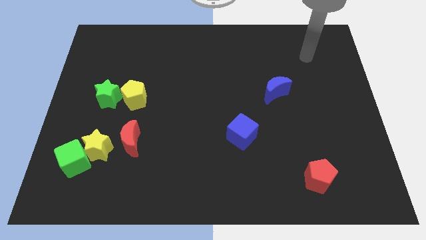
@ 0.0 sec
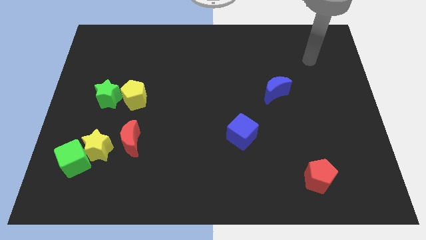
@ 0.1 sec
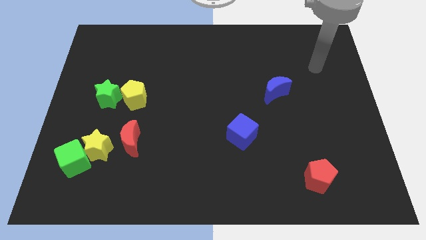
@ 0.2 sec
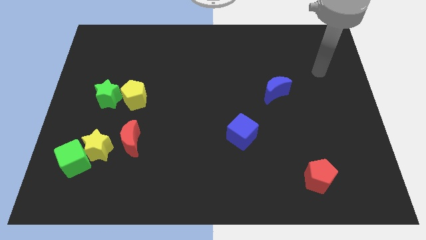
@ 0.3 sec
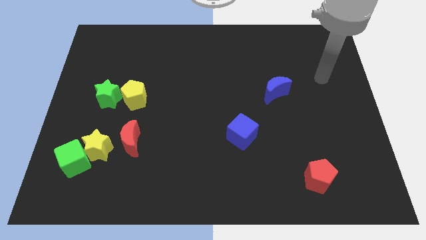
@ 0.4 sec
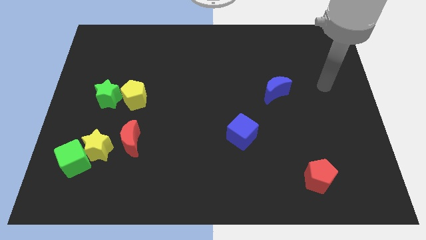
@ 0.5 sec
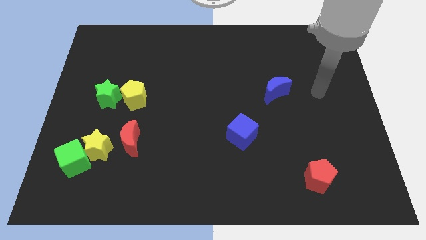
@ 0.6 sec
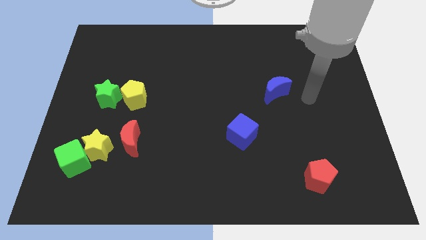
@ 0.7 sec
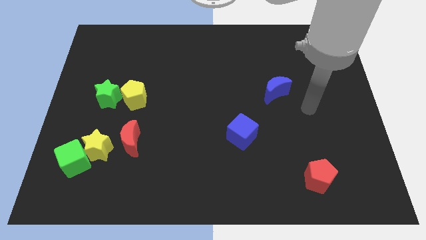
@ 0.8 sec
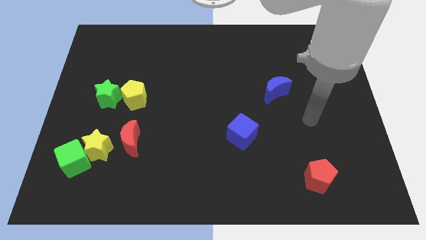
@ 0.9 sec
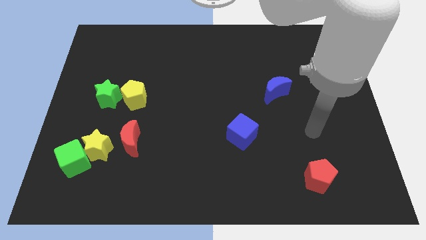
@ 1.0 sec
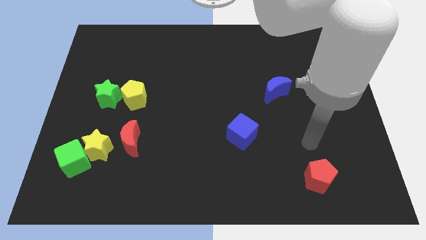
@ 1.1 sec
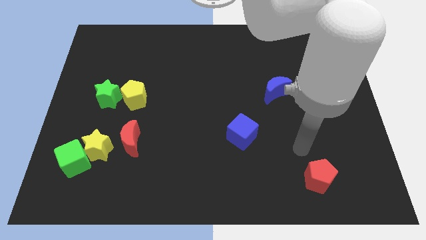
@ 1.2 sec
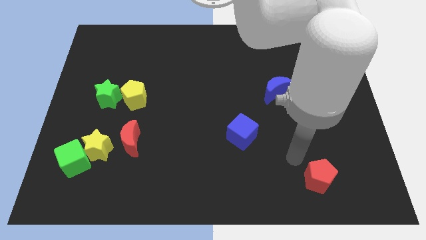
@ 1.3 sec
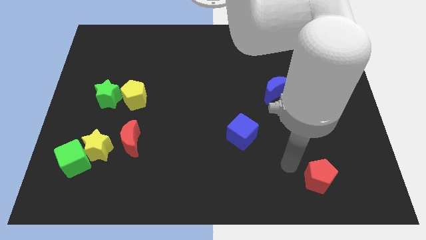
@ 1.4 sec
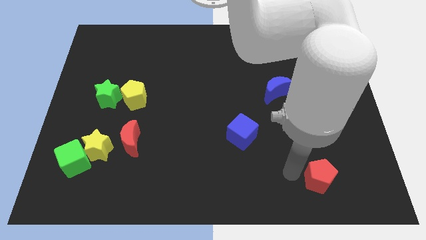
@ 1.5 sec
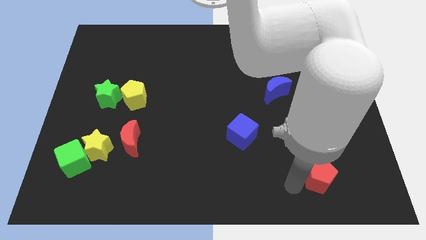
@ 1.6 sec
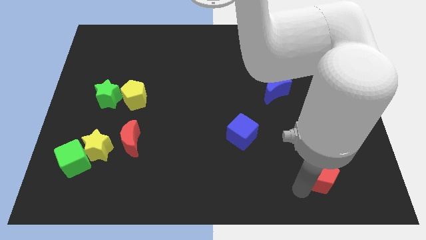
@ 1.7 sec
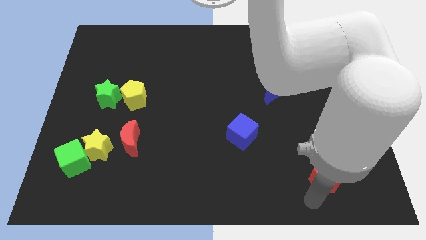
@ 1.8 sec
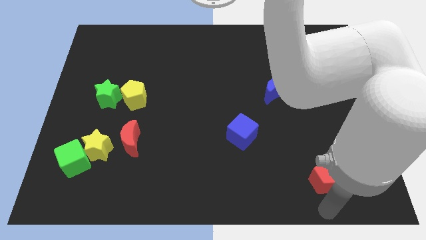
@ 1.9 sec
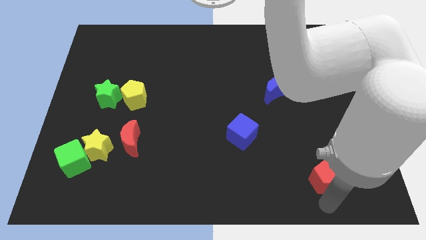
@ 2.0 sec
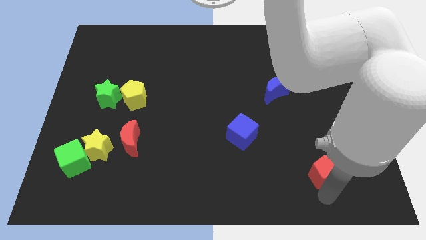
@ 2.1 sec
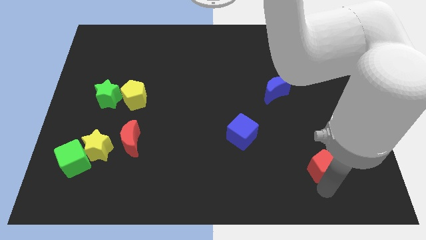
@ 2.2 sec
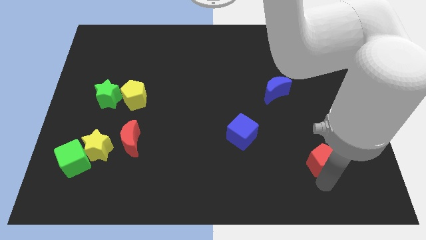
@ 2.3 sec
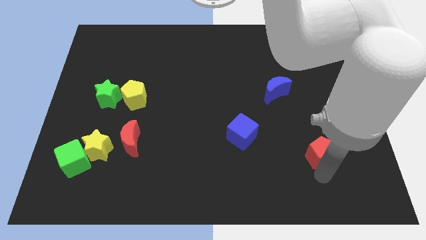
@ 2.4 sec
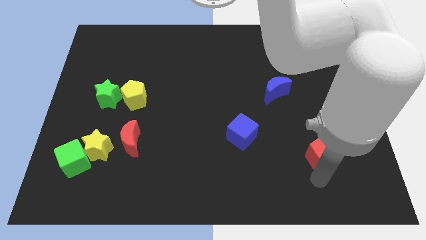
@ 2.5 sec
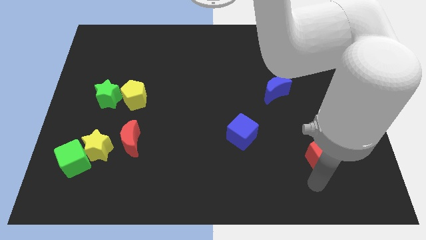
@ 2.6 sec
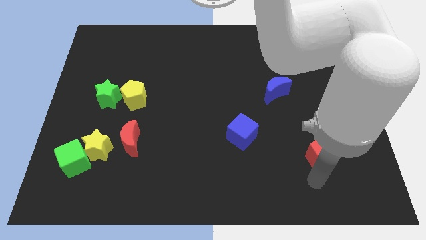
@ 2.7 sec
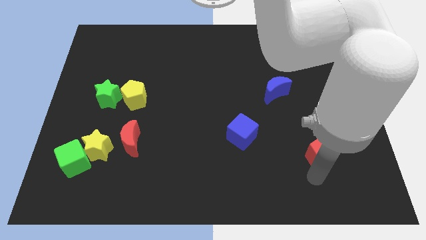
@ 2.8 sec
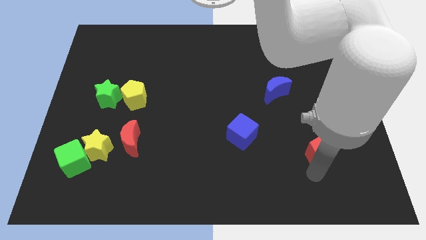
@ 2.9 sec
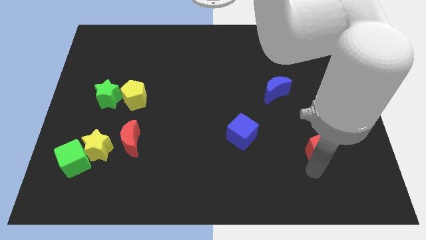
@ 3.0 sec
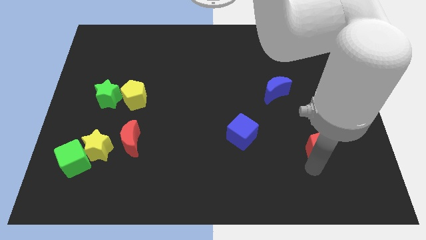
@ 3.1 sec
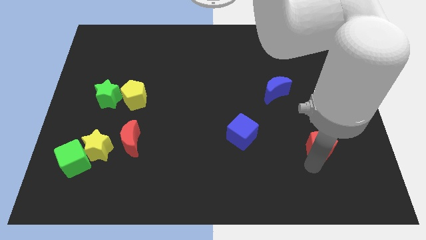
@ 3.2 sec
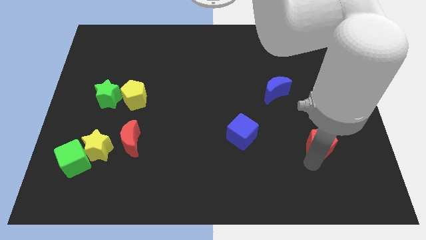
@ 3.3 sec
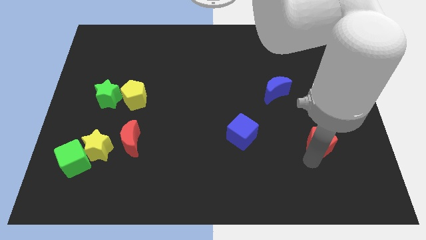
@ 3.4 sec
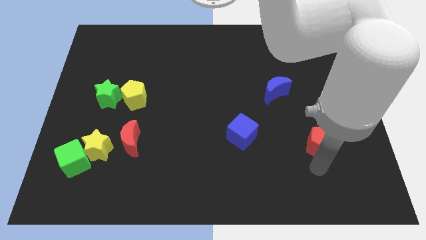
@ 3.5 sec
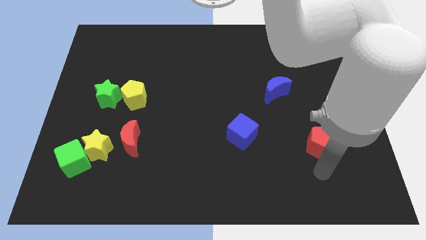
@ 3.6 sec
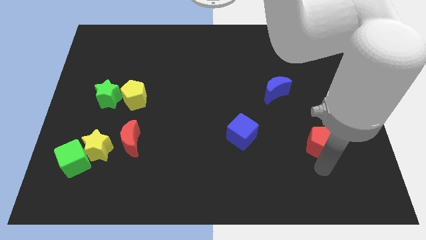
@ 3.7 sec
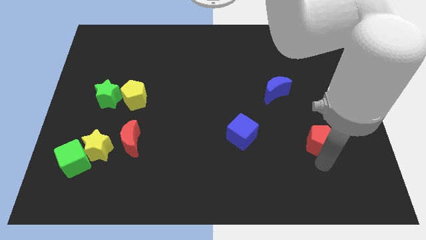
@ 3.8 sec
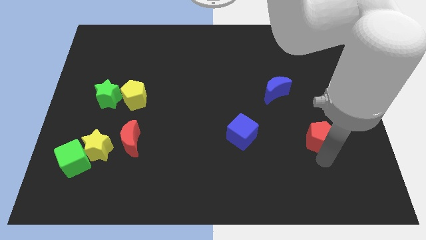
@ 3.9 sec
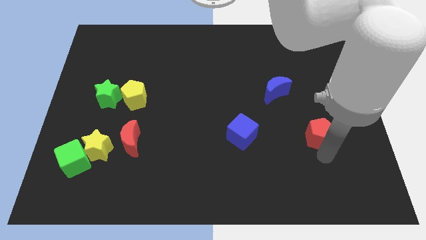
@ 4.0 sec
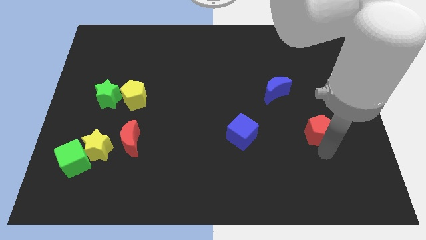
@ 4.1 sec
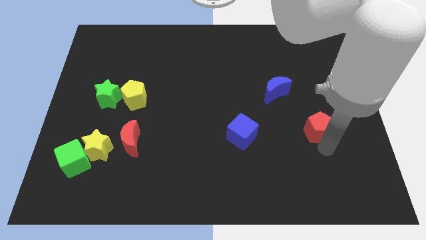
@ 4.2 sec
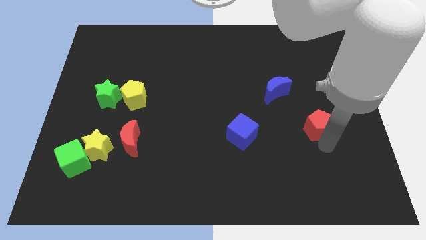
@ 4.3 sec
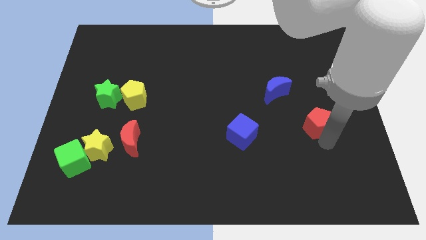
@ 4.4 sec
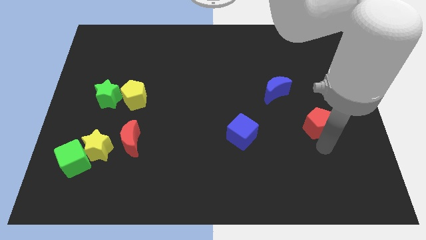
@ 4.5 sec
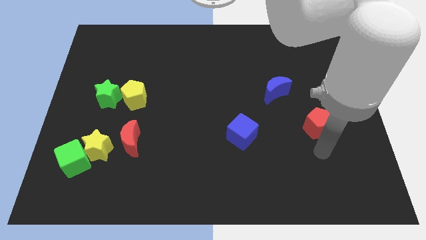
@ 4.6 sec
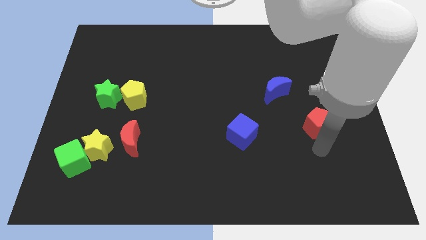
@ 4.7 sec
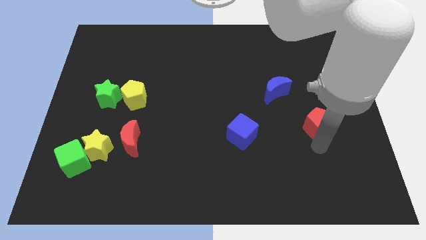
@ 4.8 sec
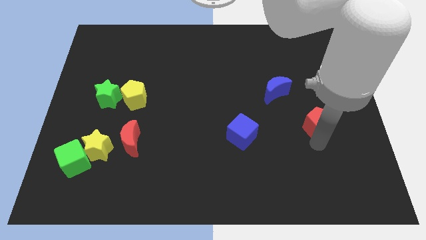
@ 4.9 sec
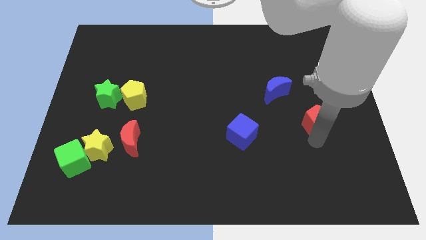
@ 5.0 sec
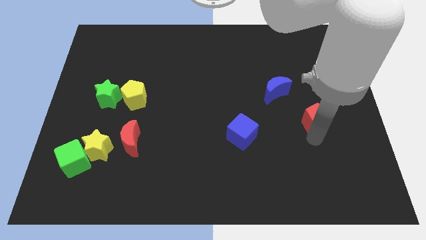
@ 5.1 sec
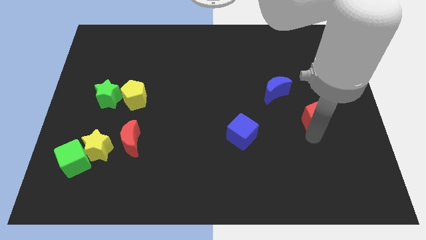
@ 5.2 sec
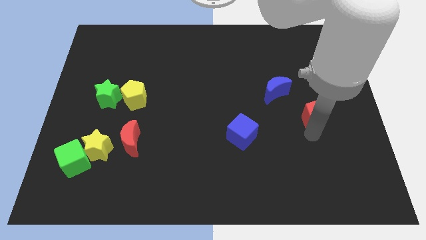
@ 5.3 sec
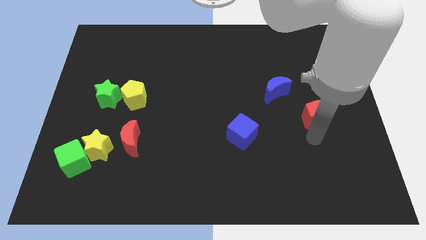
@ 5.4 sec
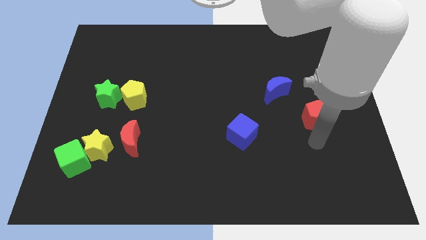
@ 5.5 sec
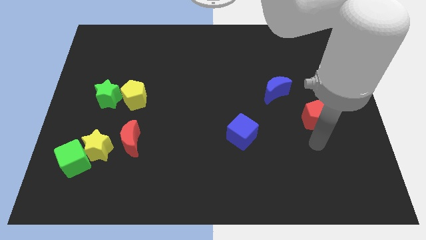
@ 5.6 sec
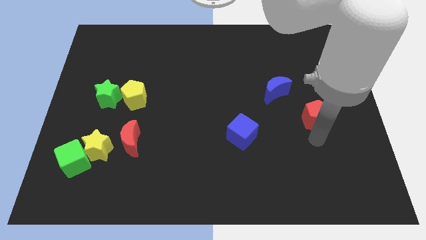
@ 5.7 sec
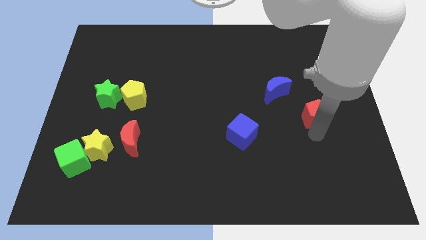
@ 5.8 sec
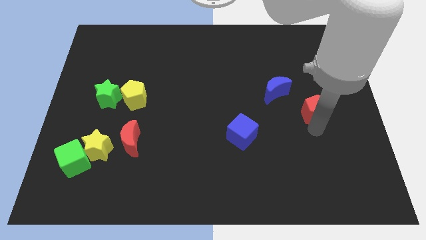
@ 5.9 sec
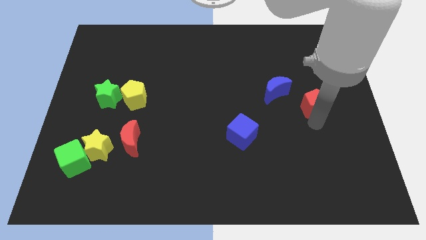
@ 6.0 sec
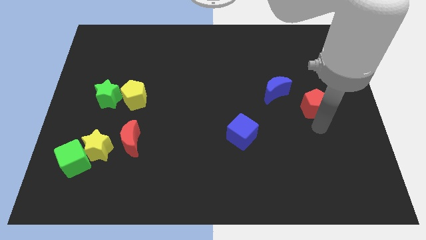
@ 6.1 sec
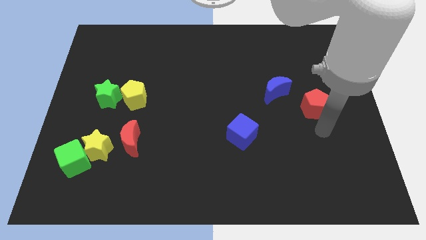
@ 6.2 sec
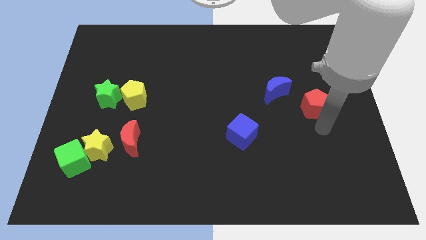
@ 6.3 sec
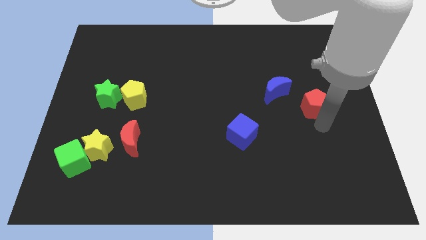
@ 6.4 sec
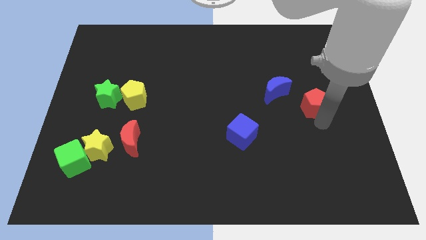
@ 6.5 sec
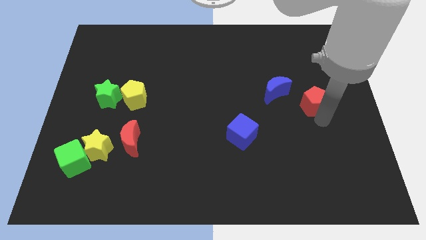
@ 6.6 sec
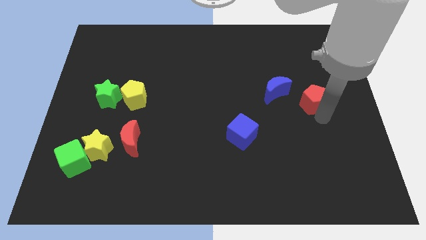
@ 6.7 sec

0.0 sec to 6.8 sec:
push the red pentagon up

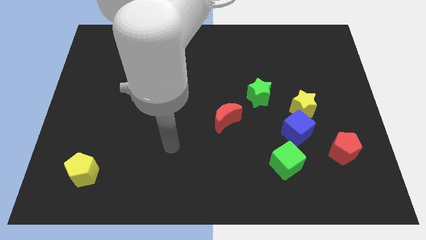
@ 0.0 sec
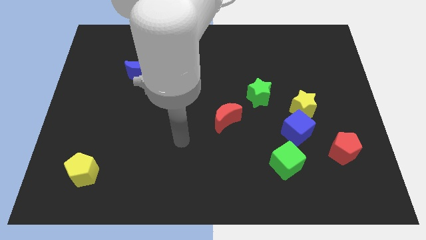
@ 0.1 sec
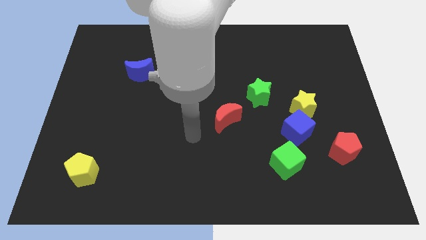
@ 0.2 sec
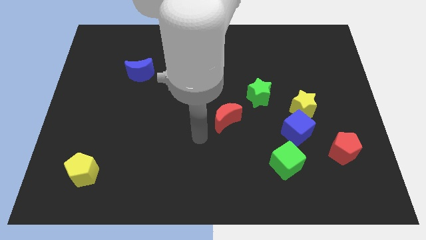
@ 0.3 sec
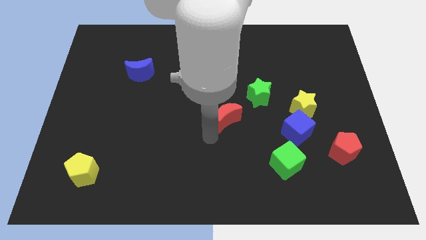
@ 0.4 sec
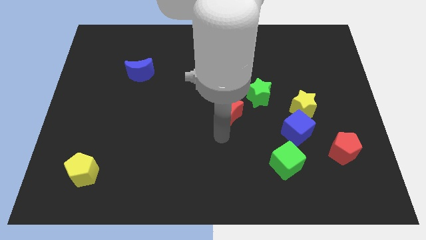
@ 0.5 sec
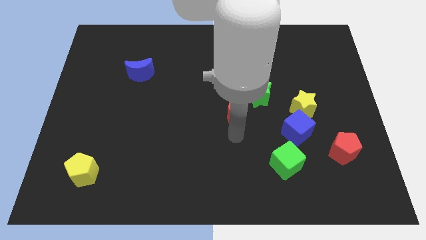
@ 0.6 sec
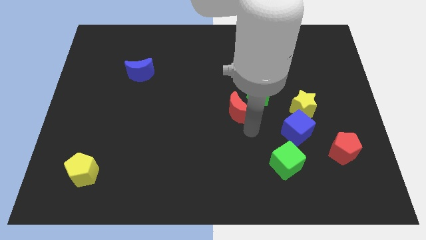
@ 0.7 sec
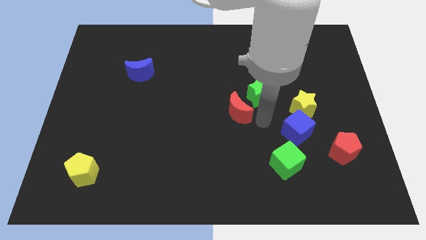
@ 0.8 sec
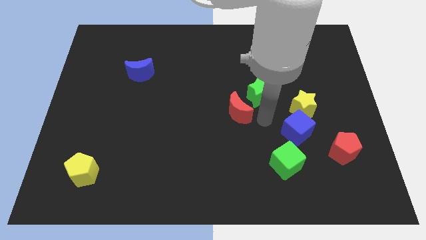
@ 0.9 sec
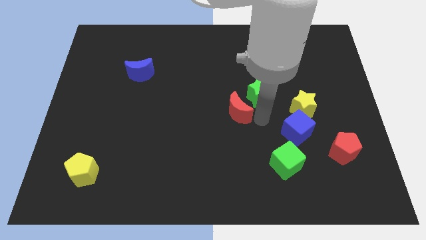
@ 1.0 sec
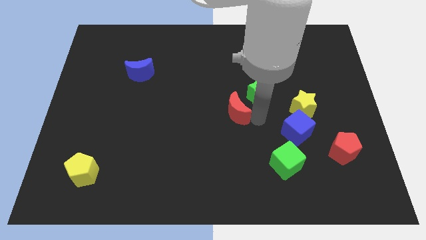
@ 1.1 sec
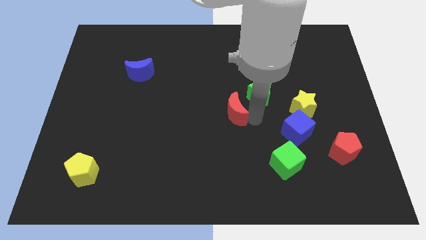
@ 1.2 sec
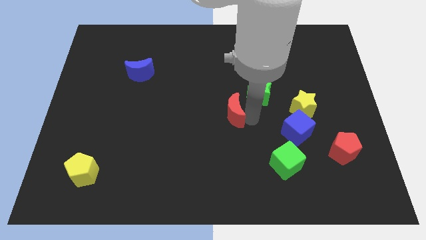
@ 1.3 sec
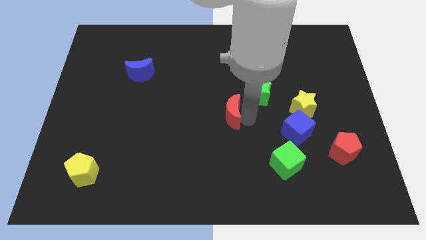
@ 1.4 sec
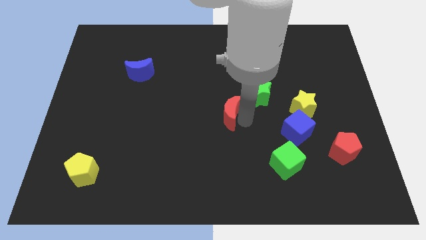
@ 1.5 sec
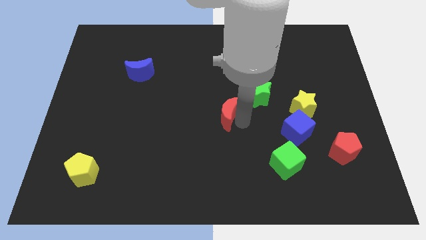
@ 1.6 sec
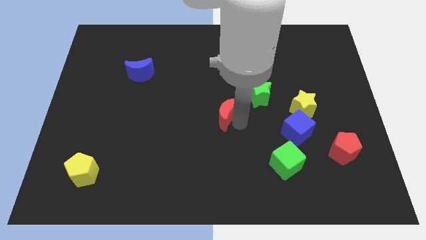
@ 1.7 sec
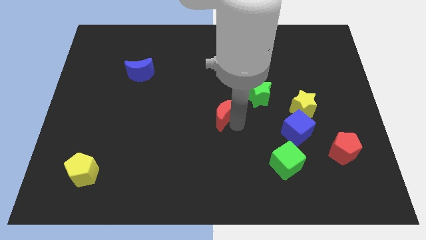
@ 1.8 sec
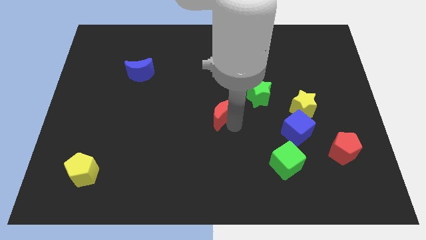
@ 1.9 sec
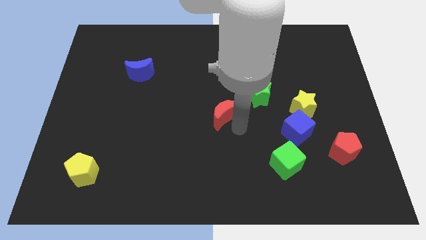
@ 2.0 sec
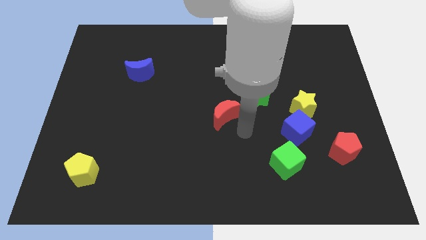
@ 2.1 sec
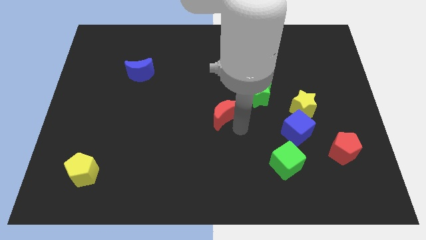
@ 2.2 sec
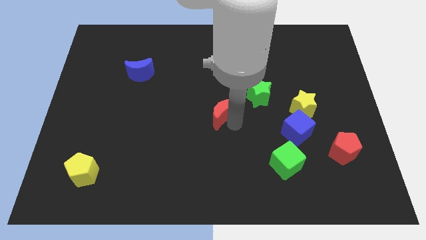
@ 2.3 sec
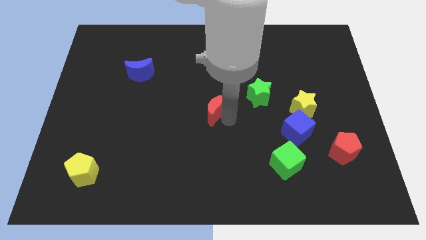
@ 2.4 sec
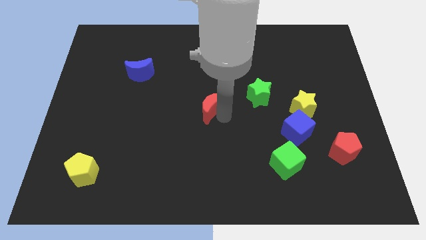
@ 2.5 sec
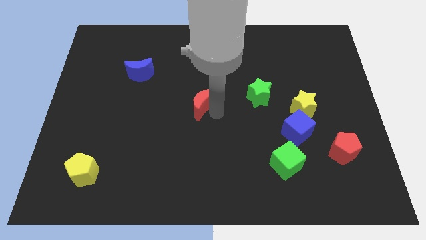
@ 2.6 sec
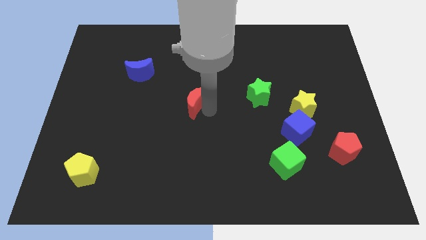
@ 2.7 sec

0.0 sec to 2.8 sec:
slightly push the red moon upwards and then left
